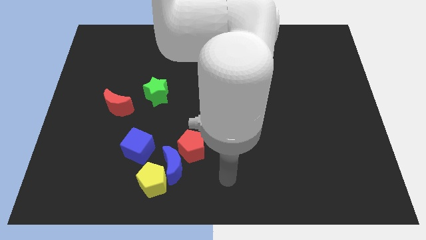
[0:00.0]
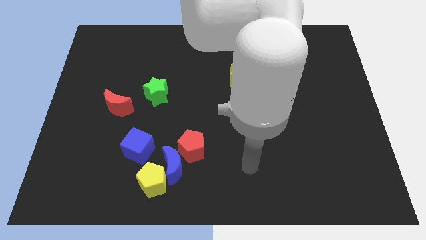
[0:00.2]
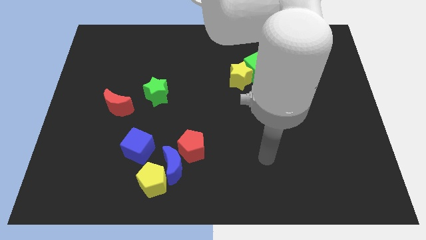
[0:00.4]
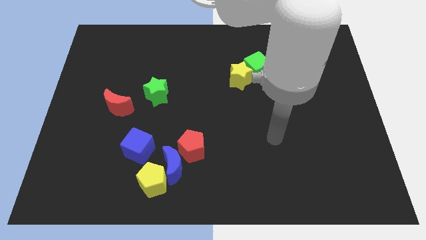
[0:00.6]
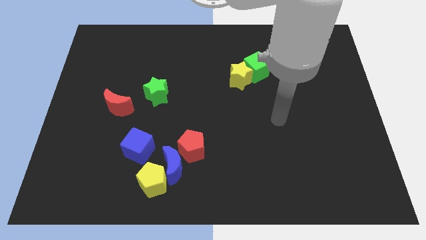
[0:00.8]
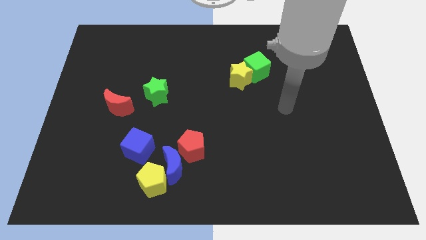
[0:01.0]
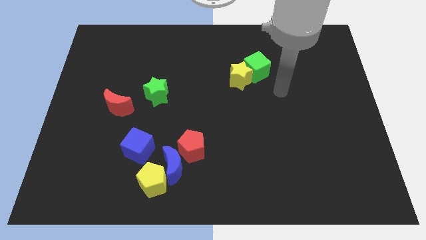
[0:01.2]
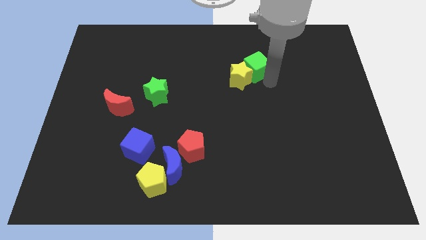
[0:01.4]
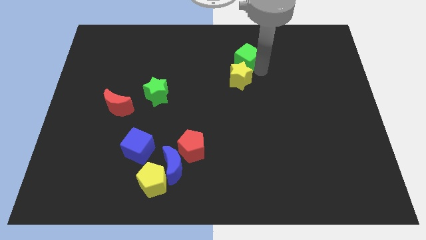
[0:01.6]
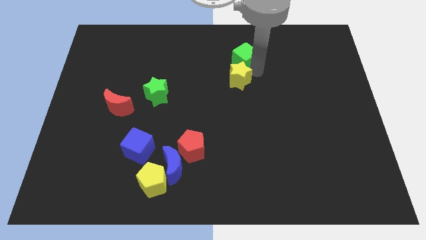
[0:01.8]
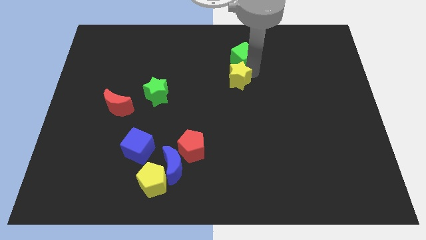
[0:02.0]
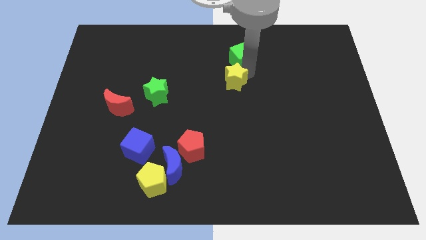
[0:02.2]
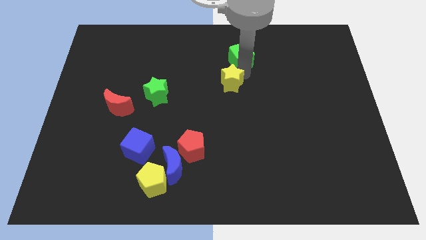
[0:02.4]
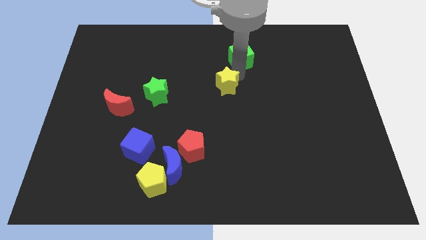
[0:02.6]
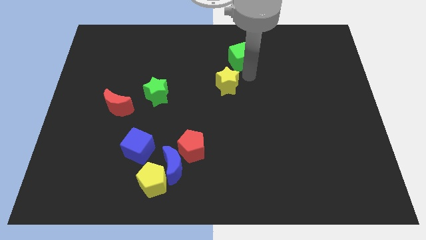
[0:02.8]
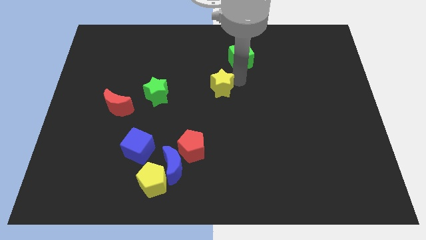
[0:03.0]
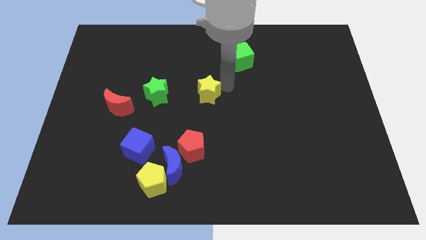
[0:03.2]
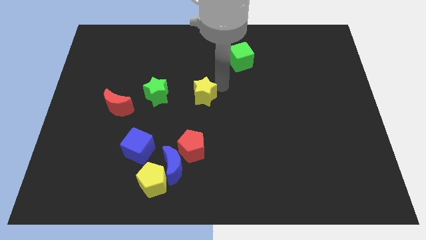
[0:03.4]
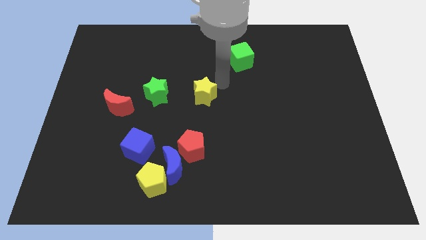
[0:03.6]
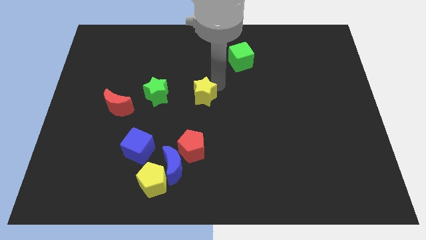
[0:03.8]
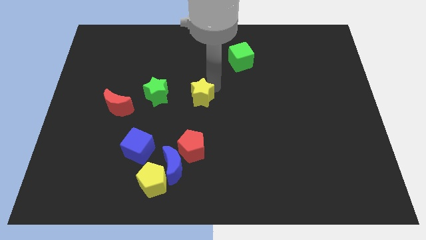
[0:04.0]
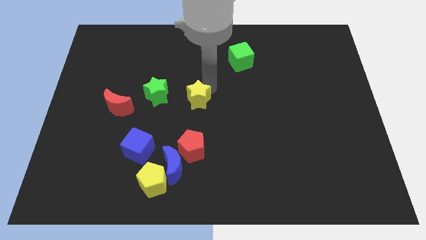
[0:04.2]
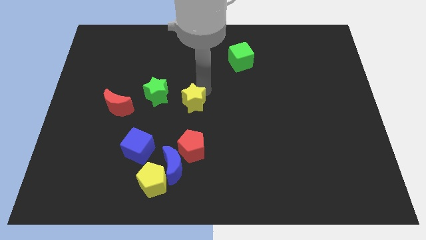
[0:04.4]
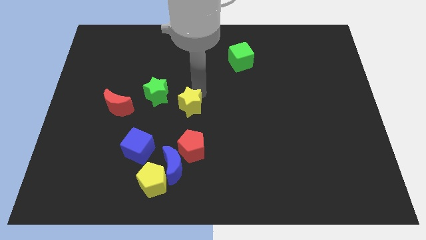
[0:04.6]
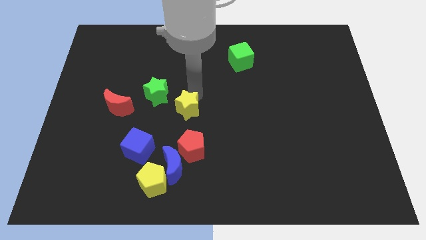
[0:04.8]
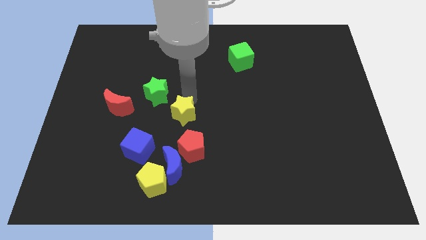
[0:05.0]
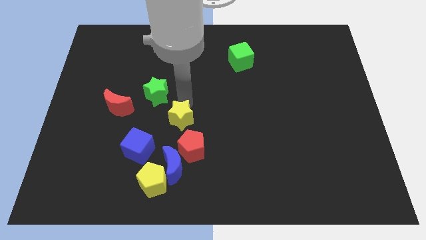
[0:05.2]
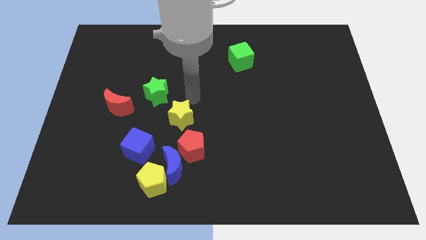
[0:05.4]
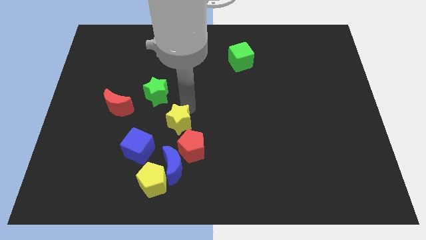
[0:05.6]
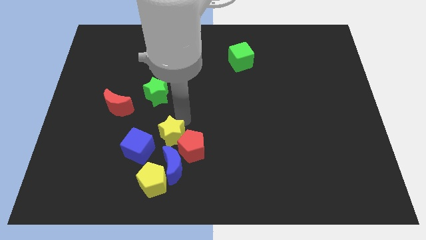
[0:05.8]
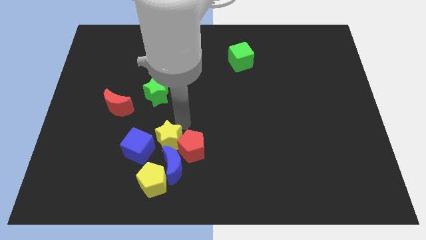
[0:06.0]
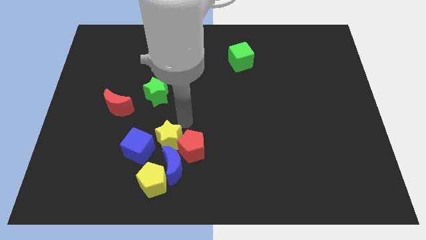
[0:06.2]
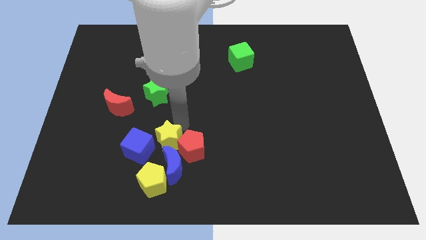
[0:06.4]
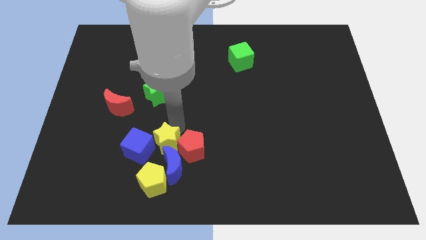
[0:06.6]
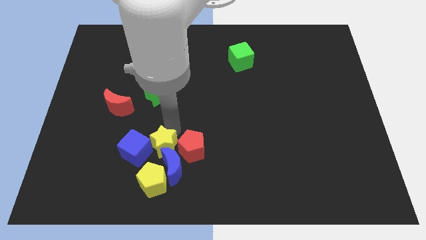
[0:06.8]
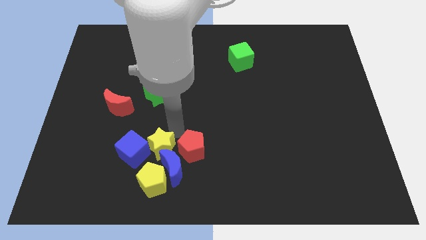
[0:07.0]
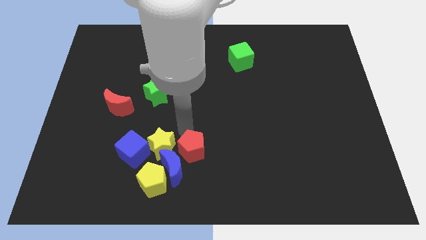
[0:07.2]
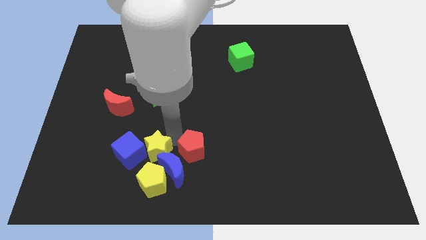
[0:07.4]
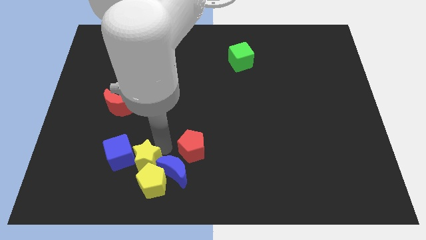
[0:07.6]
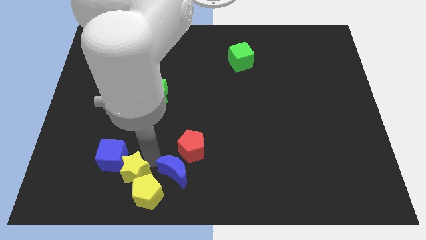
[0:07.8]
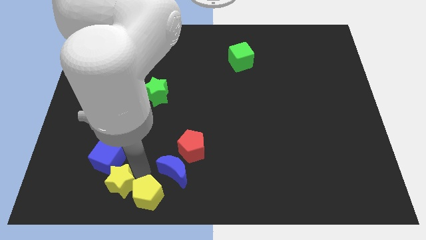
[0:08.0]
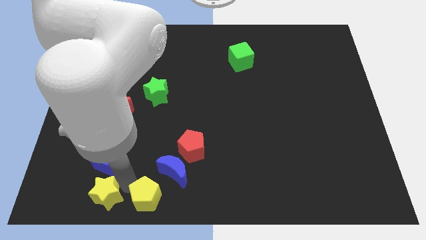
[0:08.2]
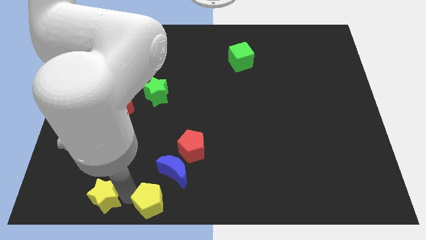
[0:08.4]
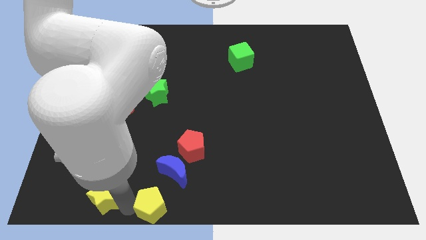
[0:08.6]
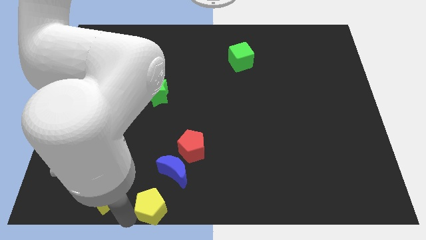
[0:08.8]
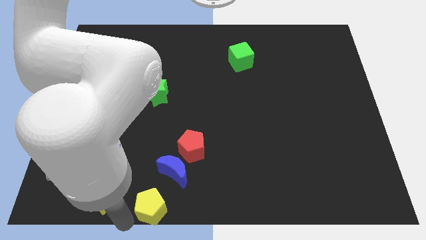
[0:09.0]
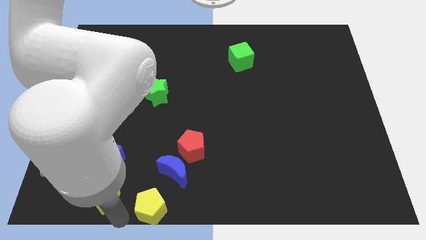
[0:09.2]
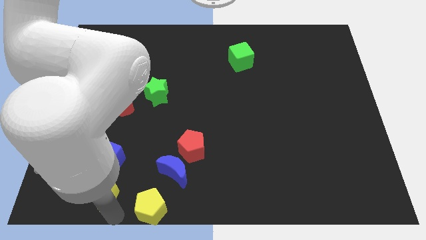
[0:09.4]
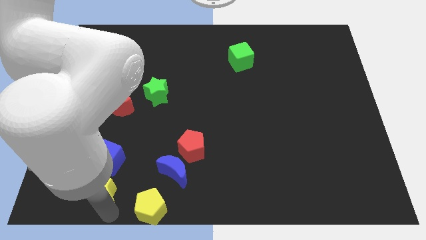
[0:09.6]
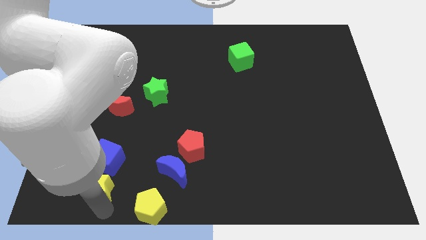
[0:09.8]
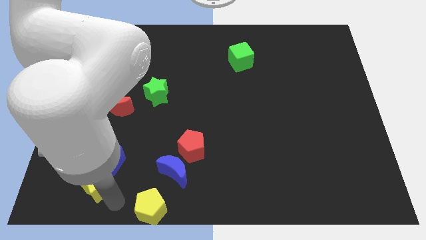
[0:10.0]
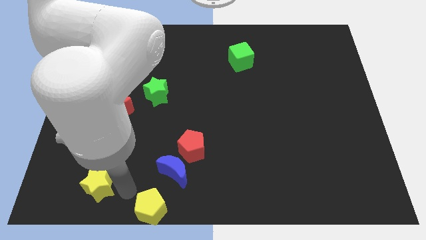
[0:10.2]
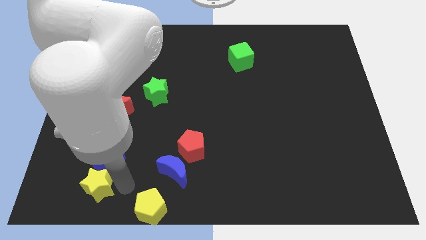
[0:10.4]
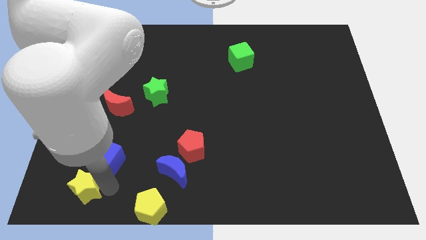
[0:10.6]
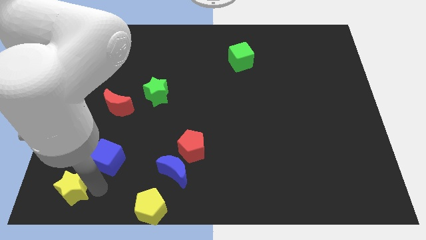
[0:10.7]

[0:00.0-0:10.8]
put the yellow star to the bottom left of the board
